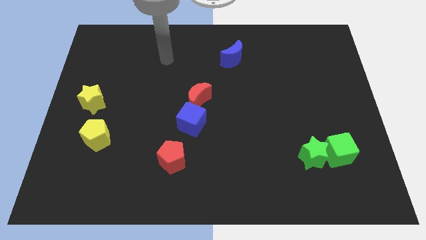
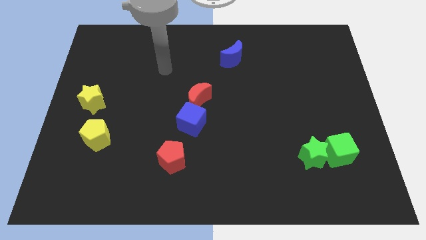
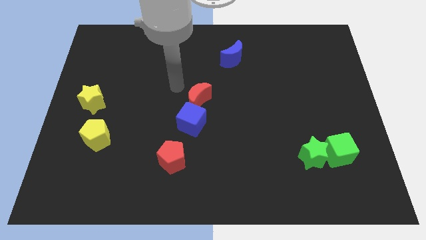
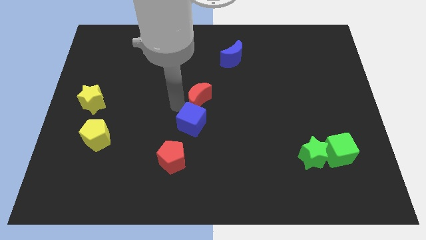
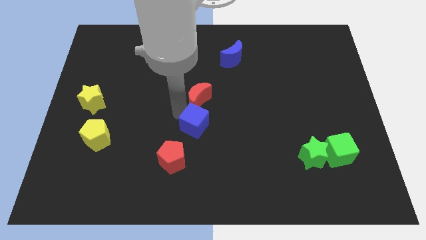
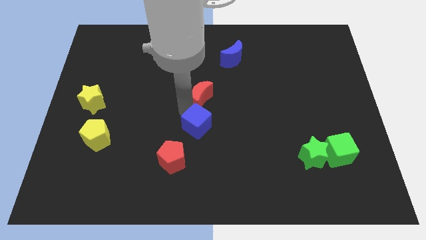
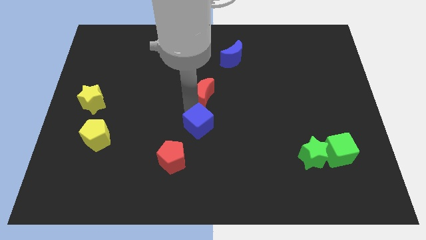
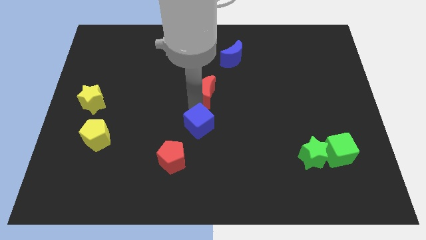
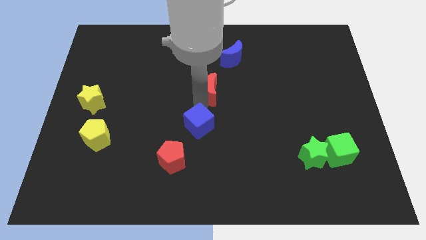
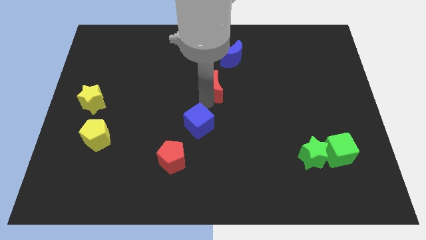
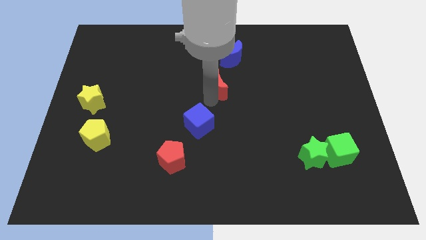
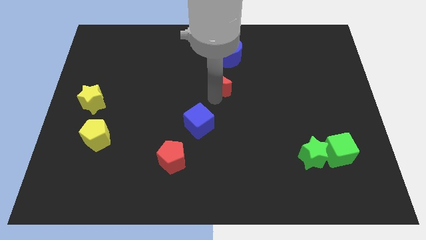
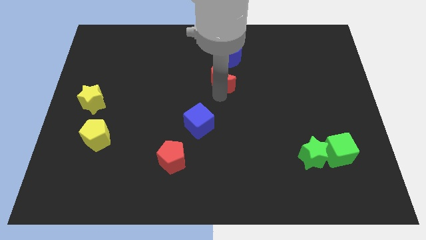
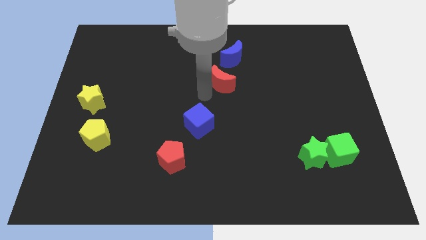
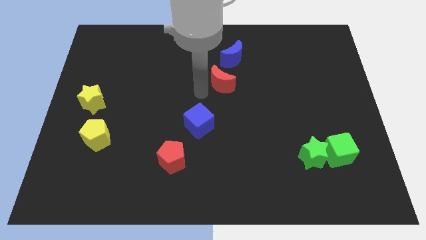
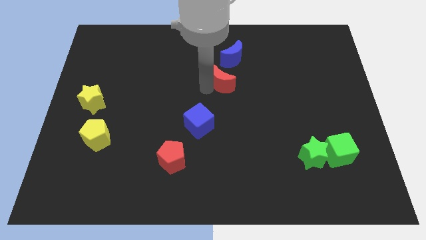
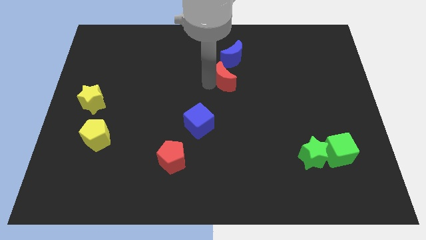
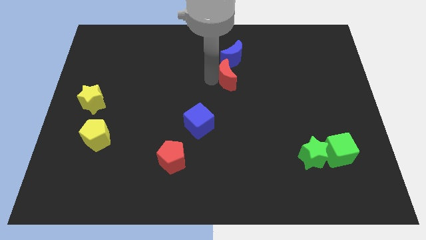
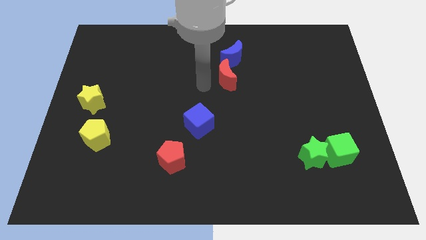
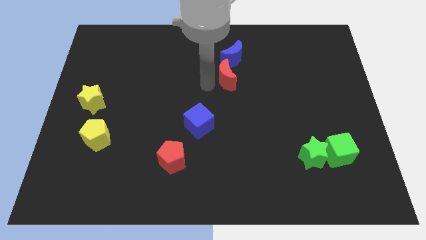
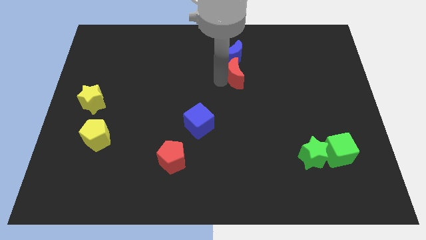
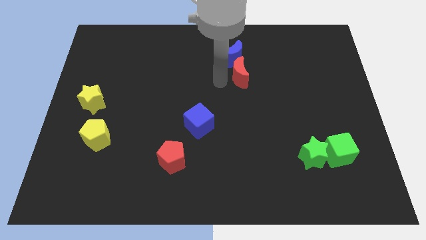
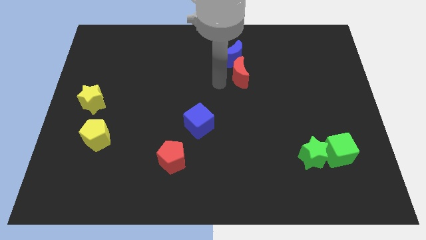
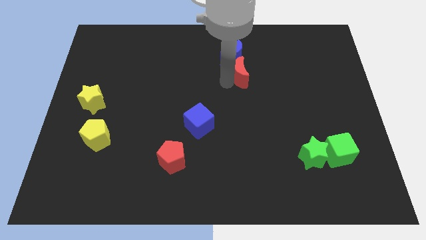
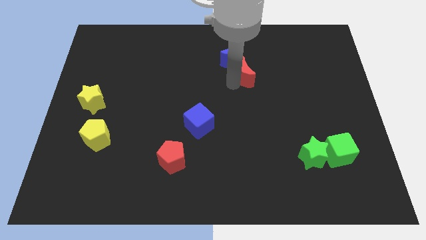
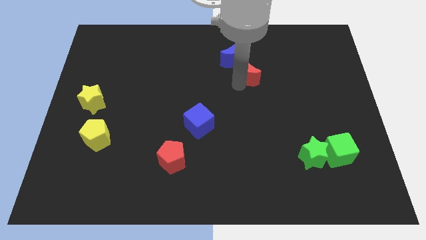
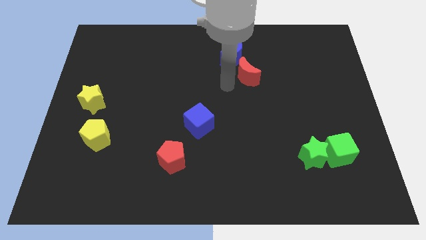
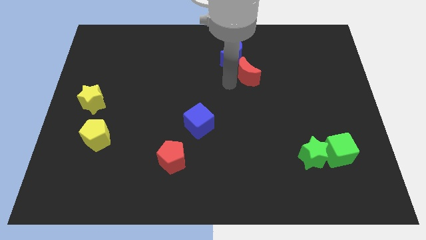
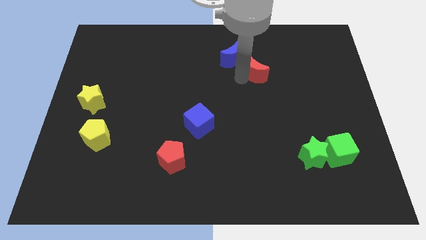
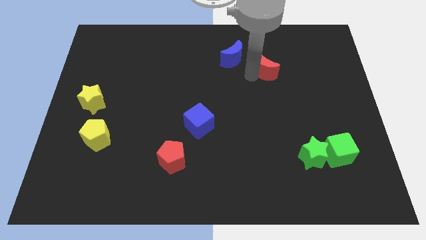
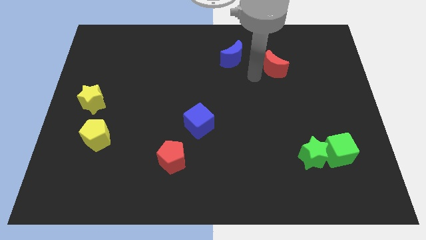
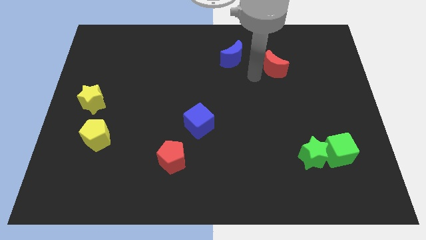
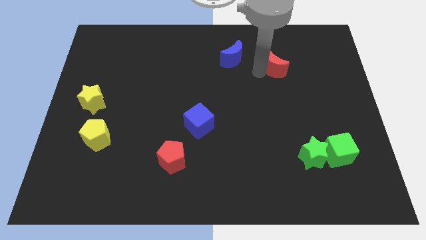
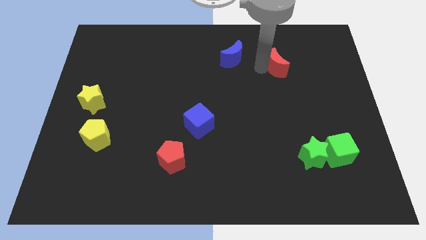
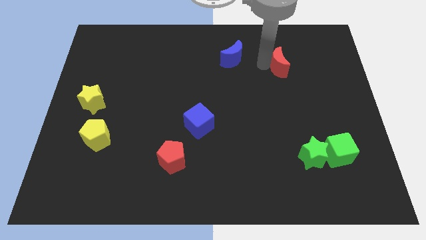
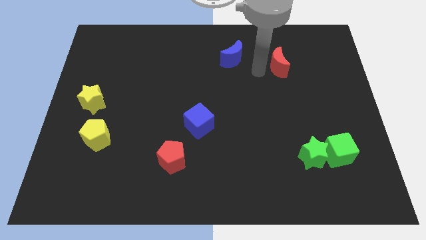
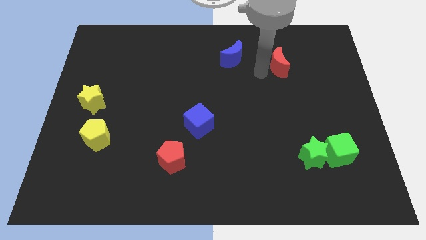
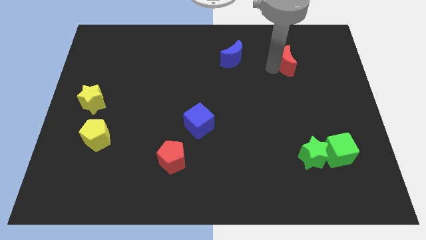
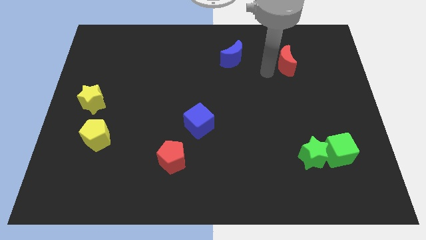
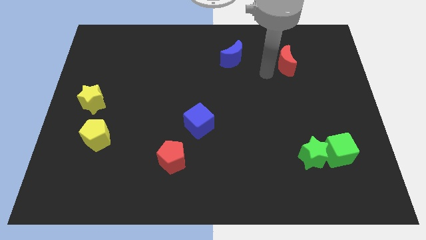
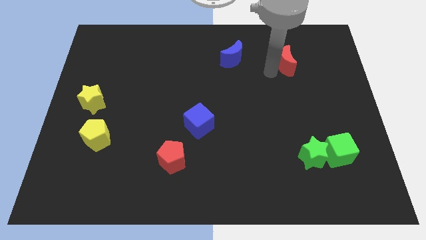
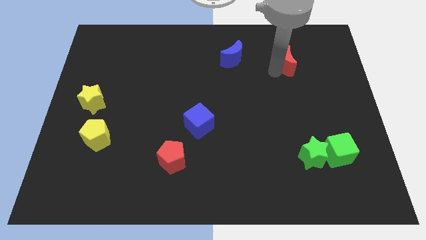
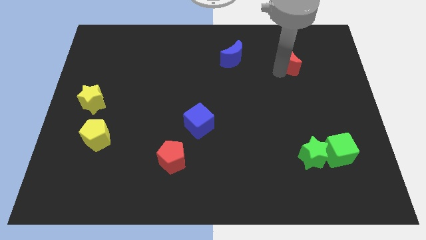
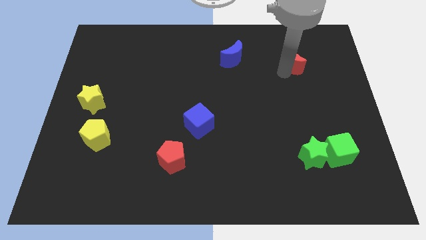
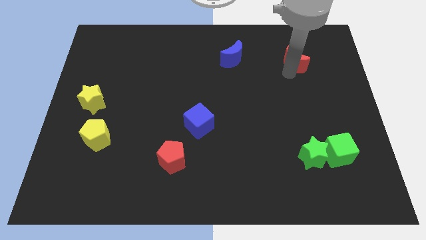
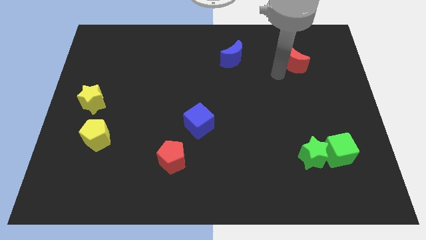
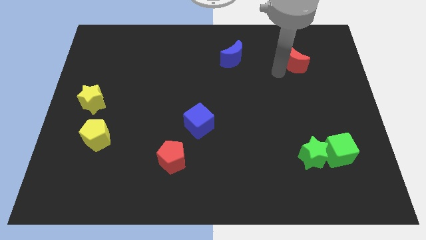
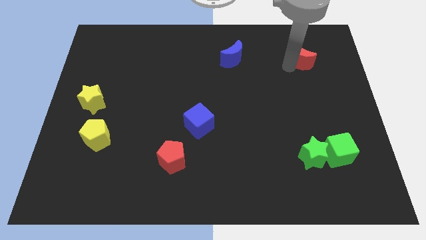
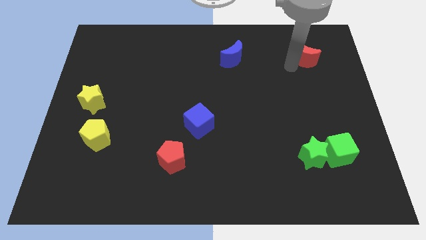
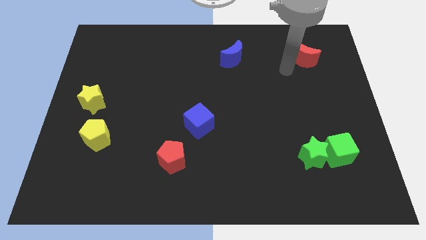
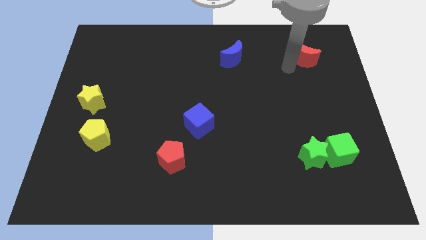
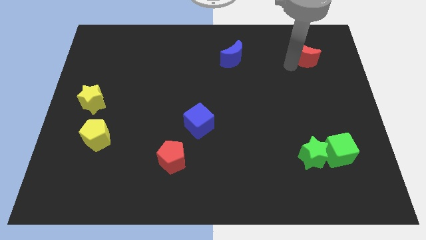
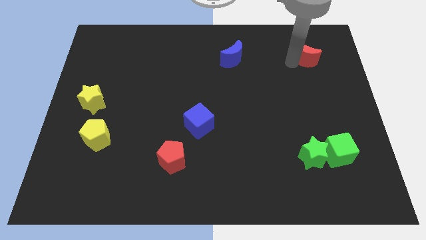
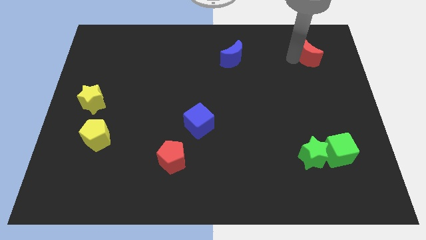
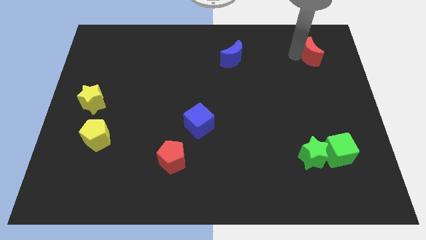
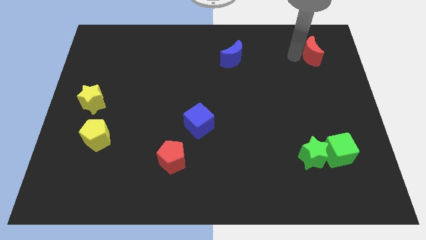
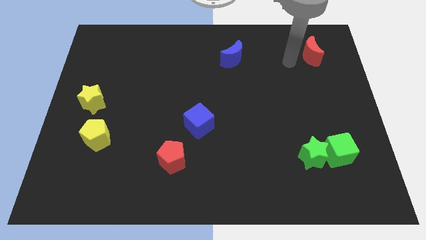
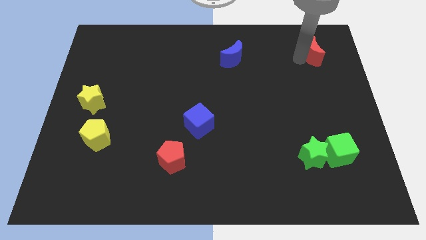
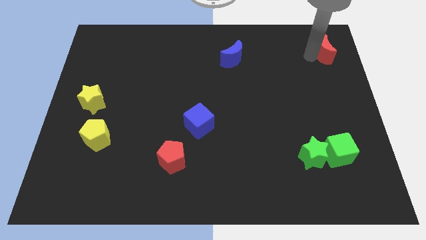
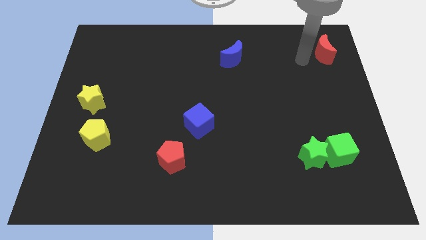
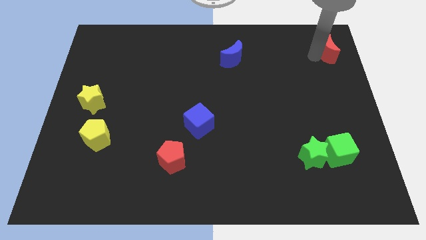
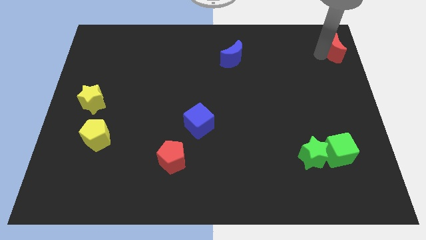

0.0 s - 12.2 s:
move the red moon to the top right of the board
